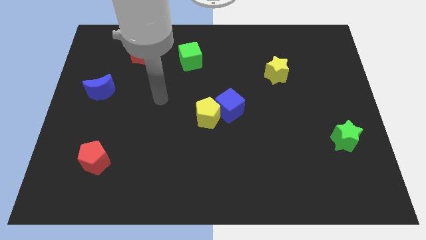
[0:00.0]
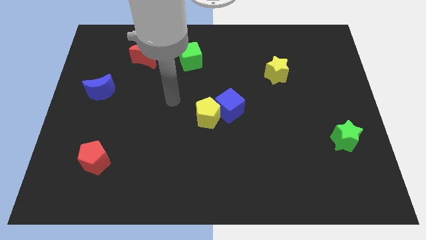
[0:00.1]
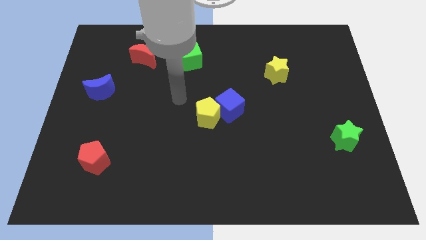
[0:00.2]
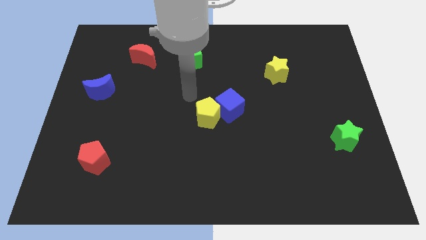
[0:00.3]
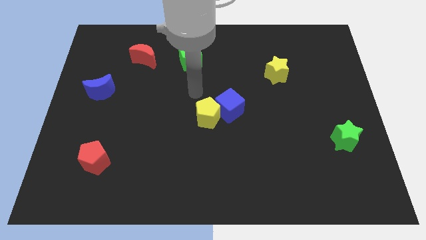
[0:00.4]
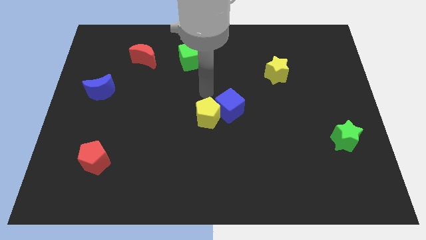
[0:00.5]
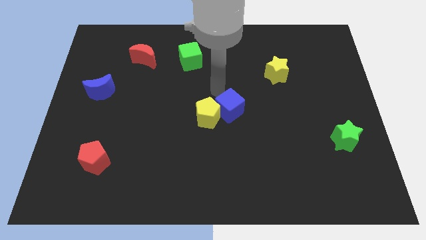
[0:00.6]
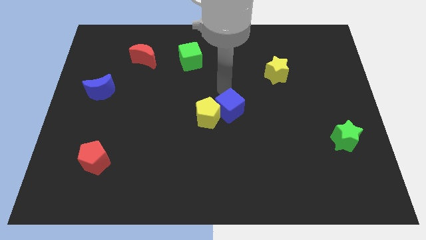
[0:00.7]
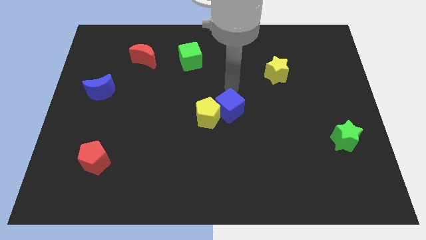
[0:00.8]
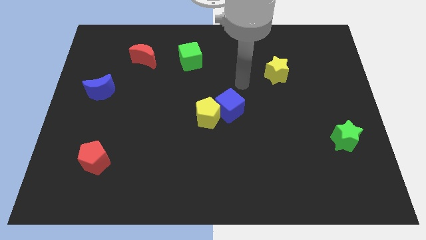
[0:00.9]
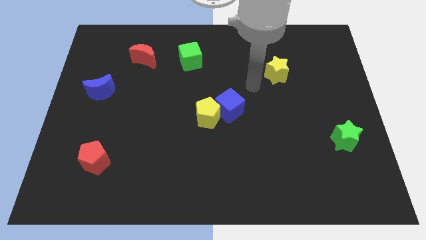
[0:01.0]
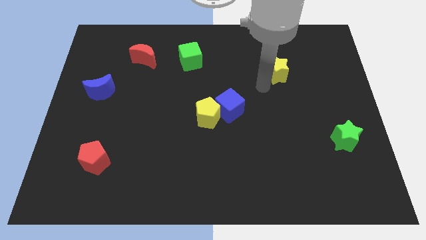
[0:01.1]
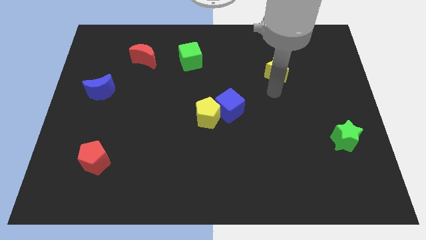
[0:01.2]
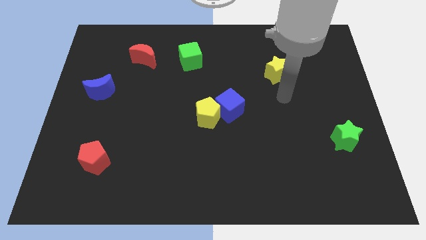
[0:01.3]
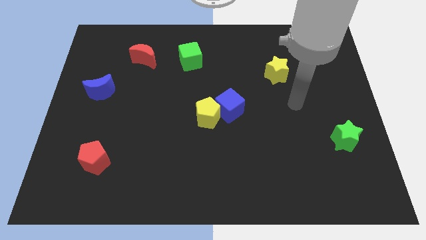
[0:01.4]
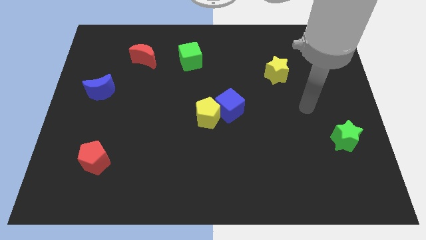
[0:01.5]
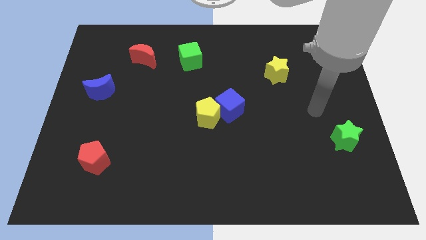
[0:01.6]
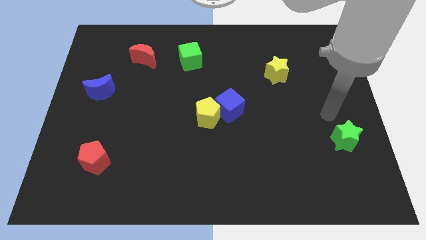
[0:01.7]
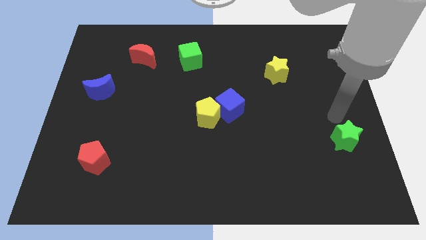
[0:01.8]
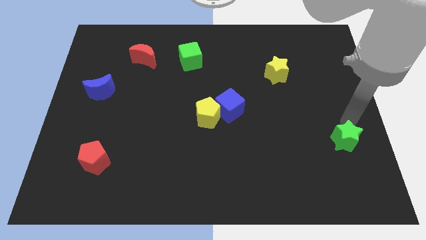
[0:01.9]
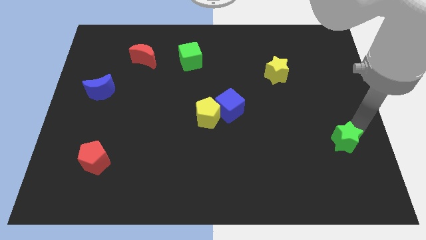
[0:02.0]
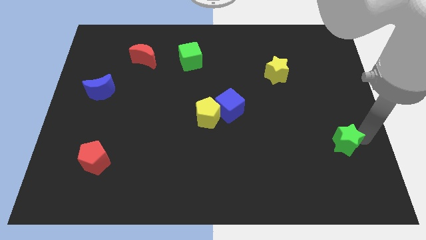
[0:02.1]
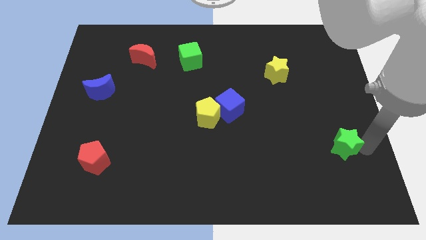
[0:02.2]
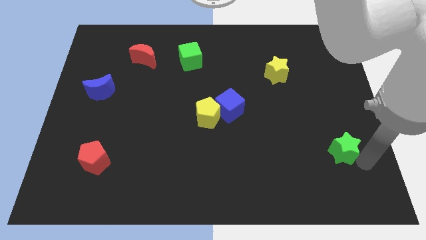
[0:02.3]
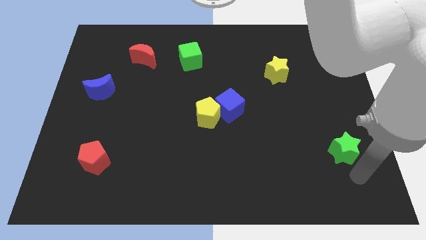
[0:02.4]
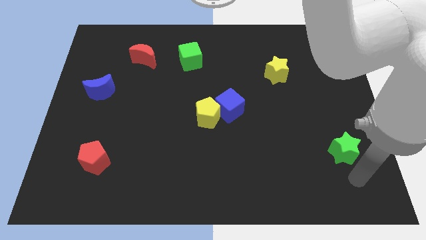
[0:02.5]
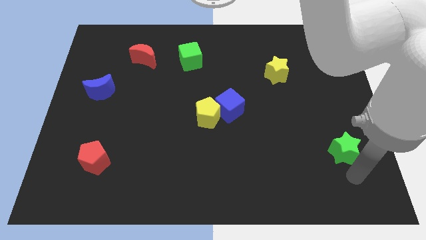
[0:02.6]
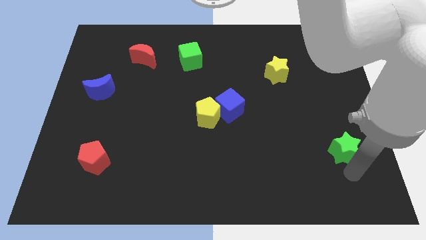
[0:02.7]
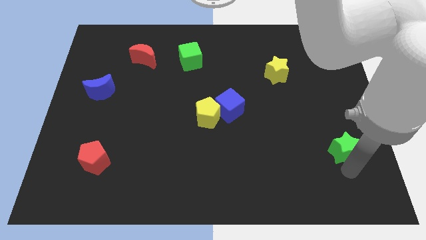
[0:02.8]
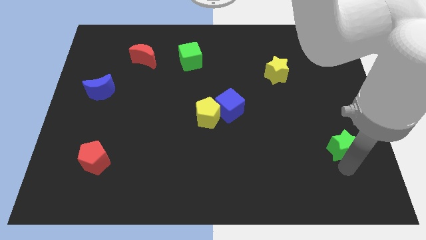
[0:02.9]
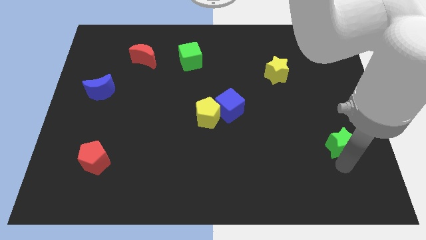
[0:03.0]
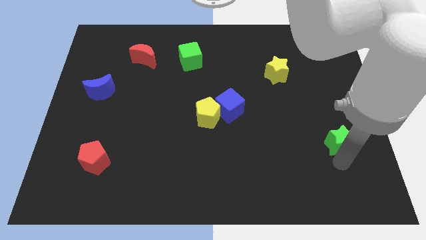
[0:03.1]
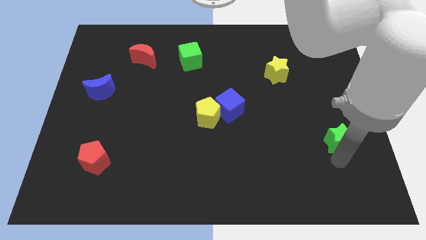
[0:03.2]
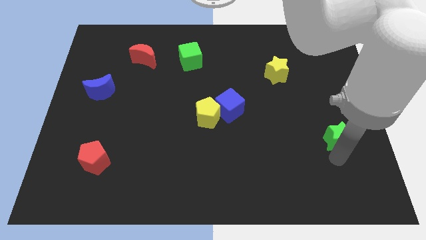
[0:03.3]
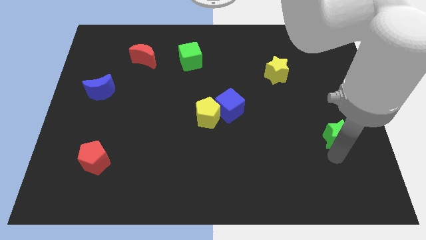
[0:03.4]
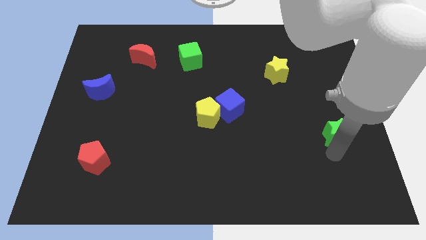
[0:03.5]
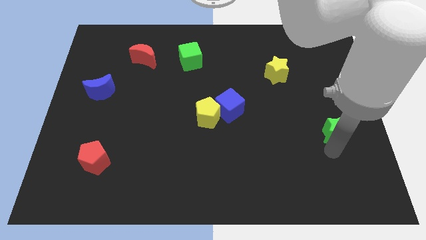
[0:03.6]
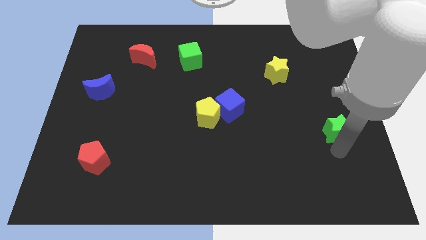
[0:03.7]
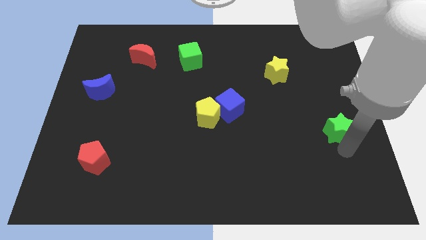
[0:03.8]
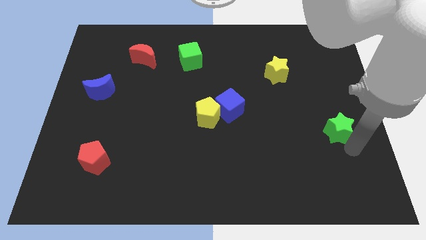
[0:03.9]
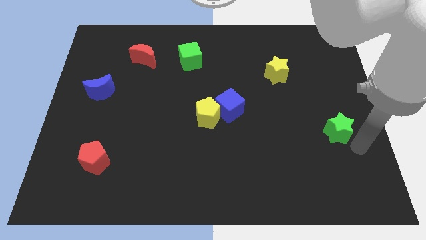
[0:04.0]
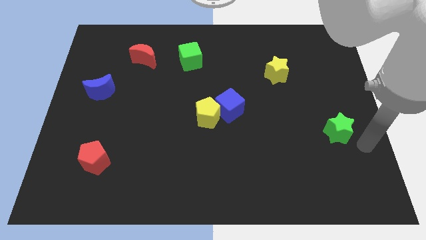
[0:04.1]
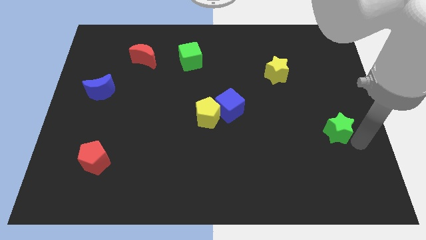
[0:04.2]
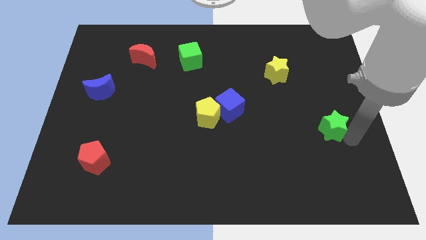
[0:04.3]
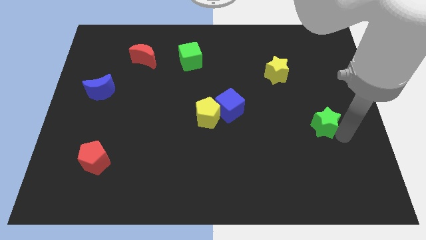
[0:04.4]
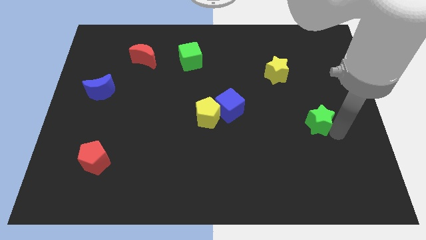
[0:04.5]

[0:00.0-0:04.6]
move the green star up and then left a little

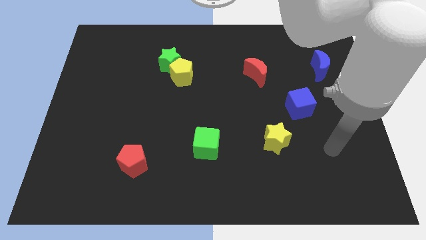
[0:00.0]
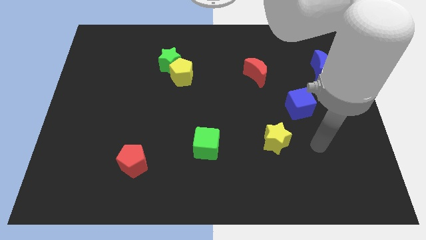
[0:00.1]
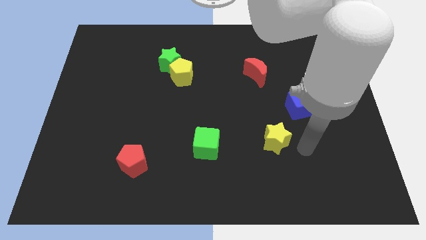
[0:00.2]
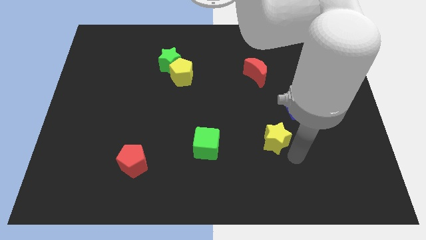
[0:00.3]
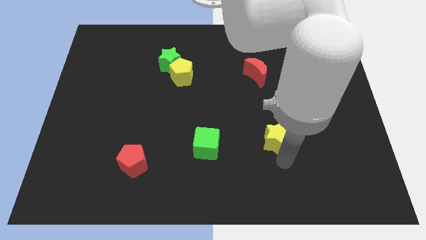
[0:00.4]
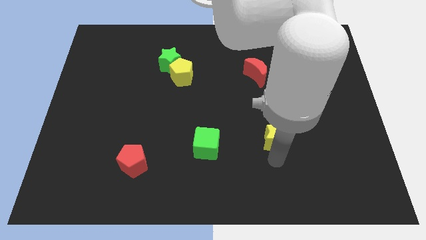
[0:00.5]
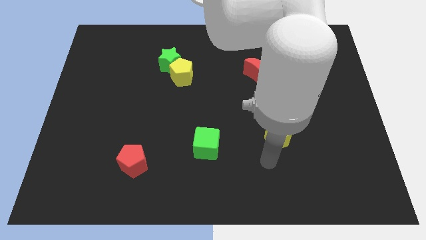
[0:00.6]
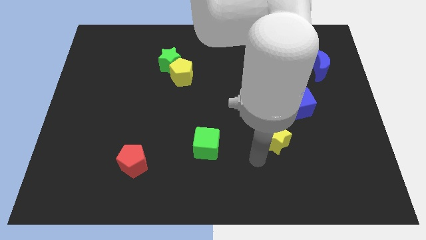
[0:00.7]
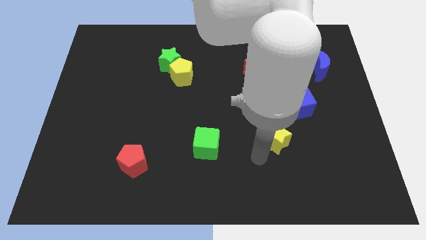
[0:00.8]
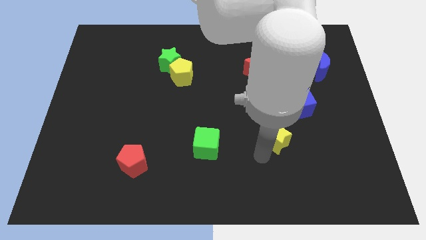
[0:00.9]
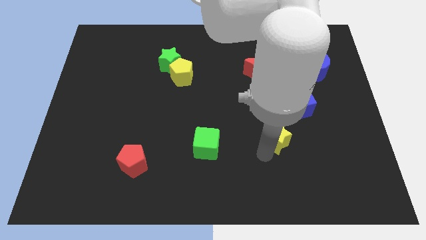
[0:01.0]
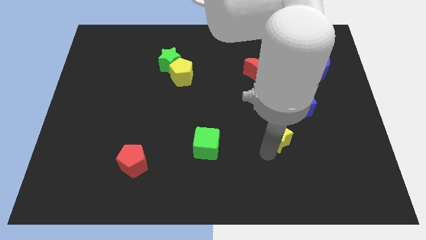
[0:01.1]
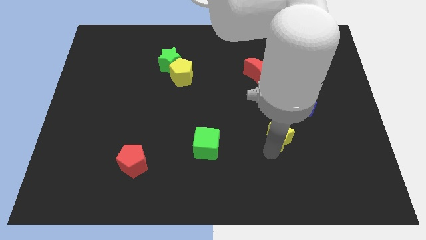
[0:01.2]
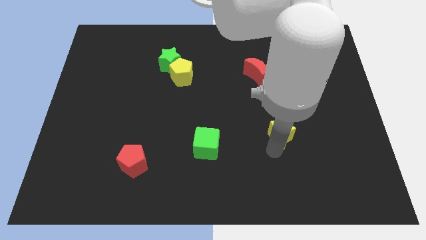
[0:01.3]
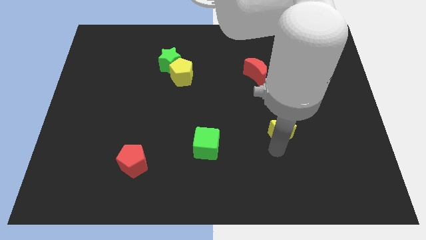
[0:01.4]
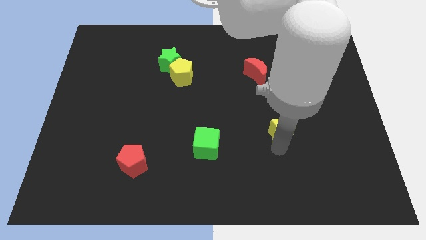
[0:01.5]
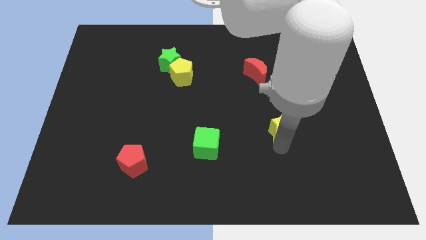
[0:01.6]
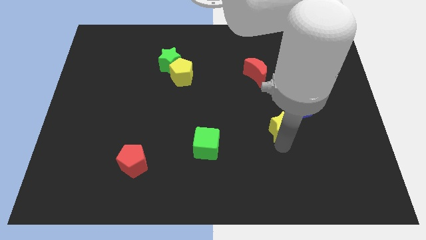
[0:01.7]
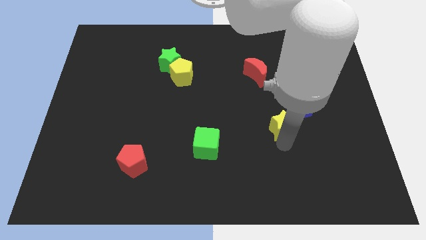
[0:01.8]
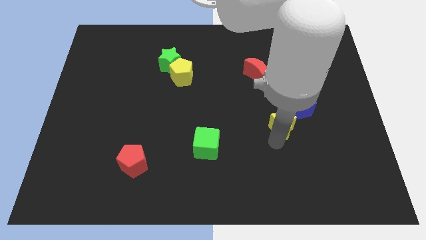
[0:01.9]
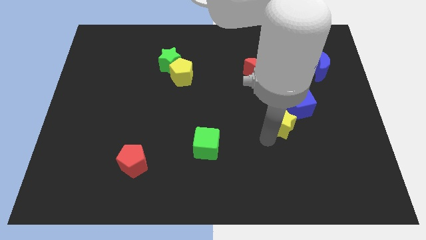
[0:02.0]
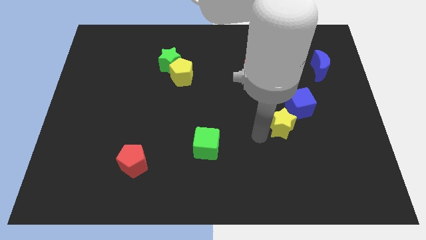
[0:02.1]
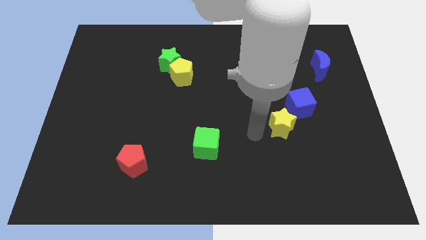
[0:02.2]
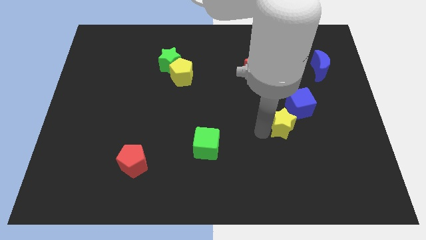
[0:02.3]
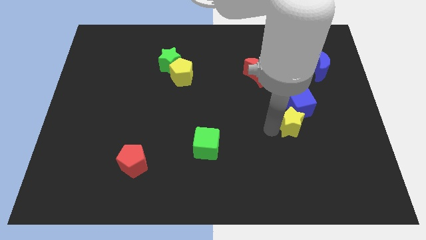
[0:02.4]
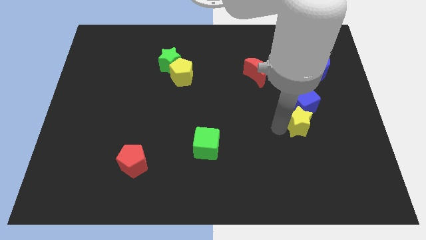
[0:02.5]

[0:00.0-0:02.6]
move the yellow star up and to the right somewhat

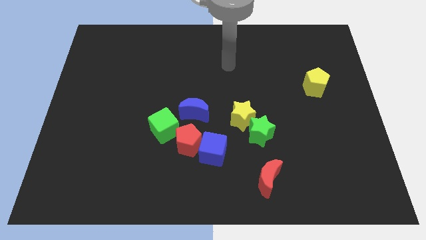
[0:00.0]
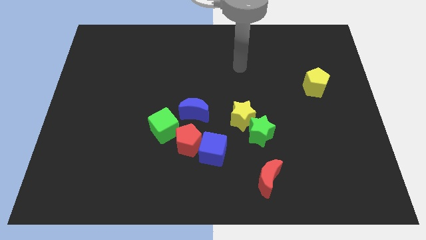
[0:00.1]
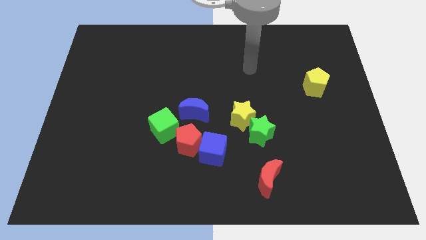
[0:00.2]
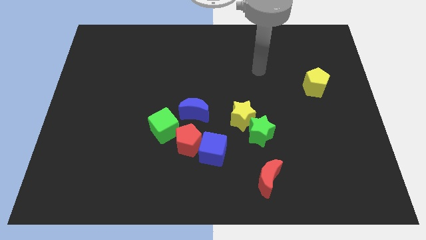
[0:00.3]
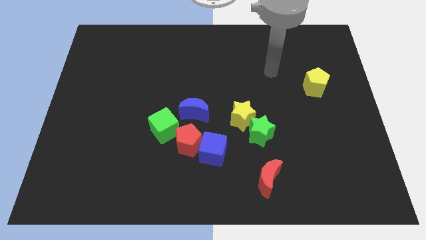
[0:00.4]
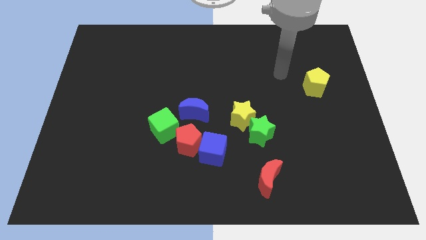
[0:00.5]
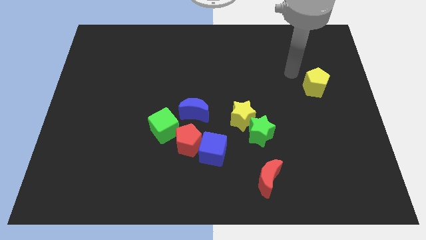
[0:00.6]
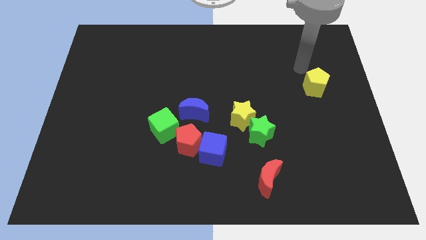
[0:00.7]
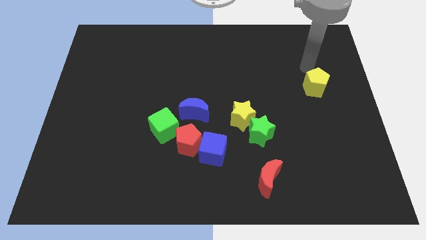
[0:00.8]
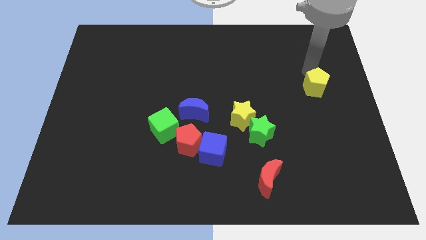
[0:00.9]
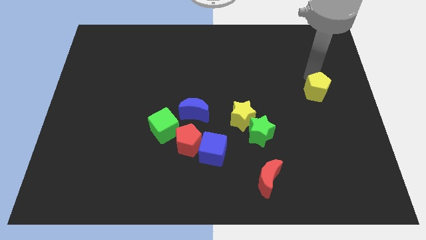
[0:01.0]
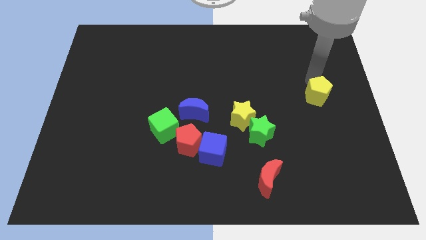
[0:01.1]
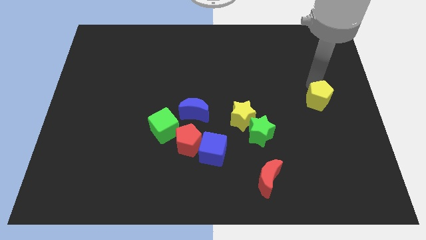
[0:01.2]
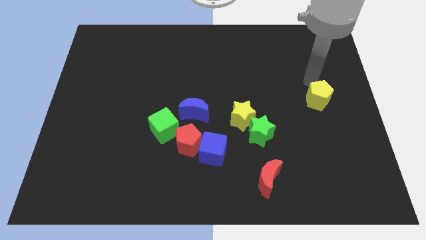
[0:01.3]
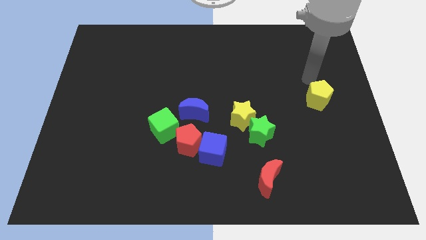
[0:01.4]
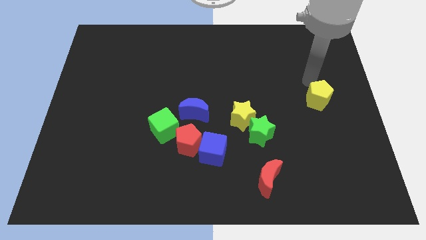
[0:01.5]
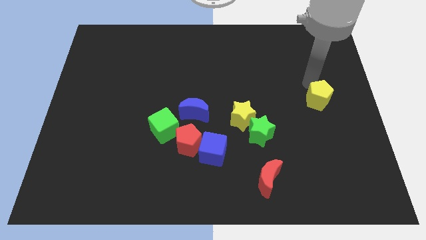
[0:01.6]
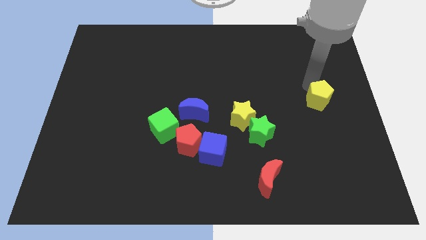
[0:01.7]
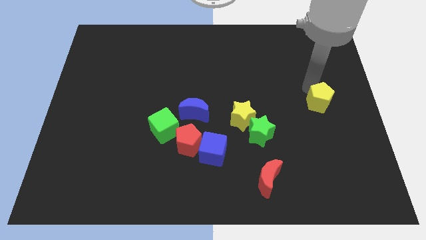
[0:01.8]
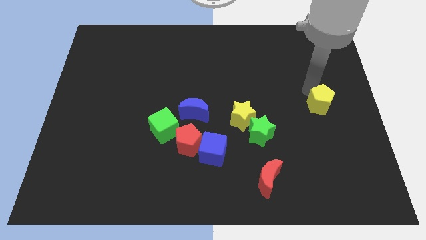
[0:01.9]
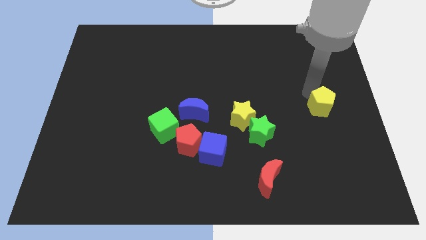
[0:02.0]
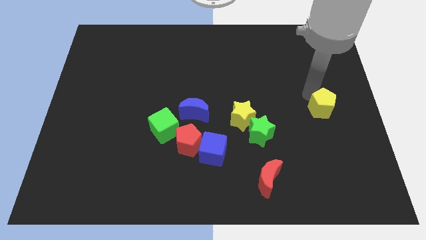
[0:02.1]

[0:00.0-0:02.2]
slide the yellow pentagon a bit down
